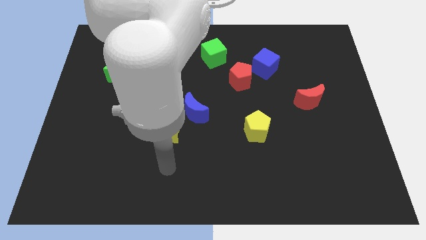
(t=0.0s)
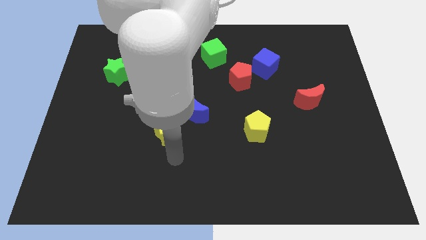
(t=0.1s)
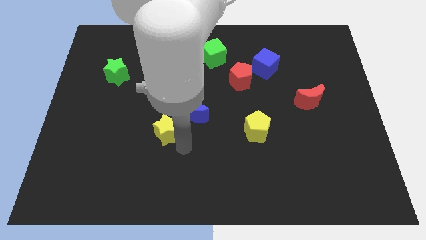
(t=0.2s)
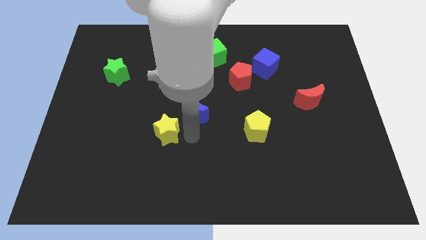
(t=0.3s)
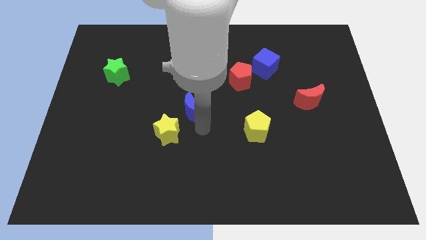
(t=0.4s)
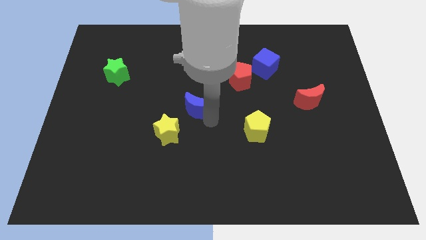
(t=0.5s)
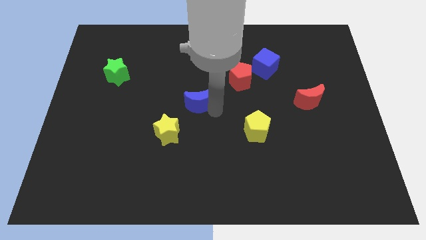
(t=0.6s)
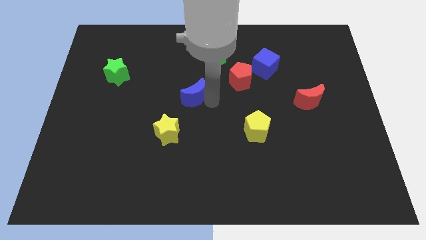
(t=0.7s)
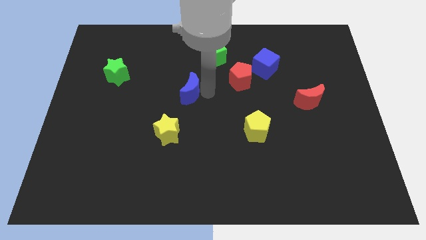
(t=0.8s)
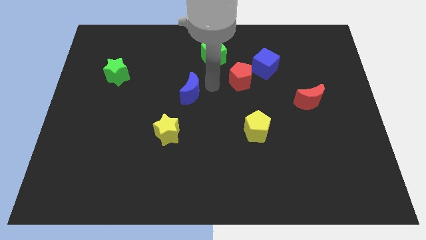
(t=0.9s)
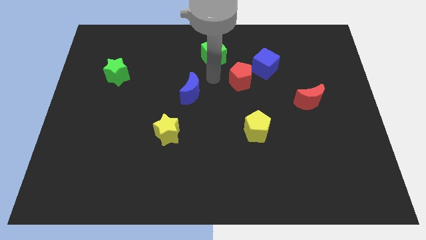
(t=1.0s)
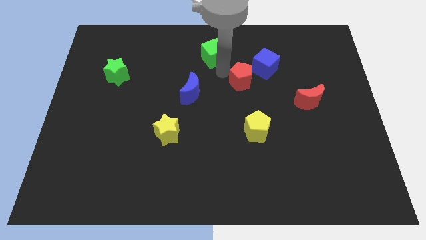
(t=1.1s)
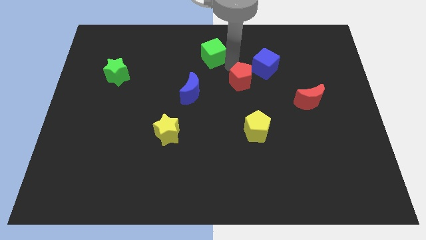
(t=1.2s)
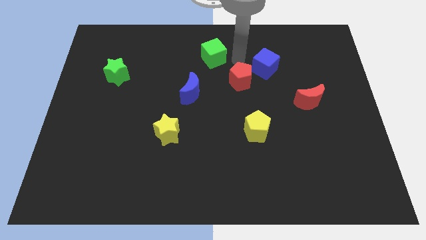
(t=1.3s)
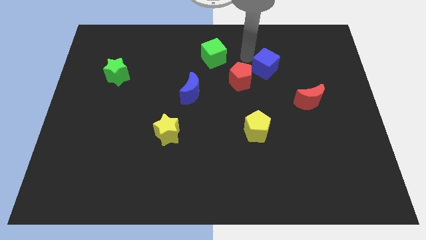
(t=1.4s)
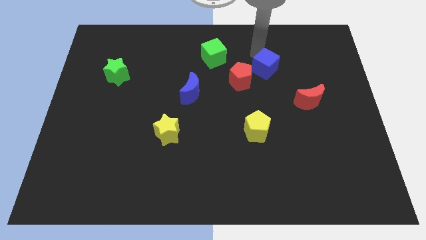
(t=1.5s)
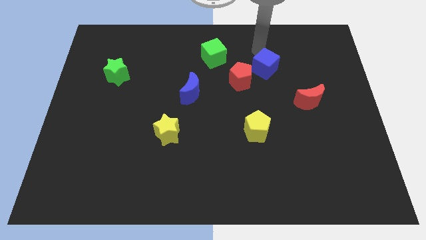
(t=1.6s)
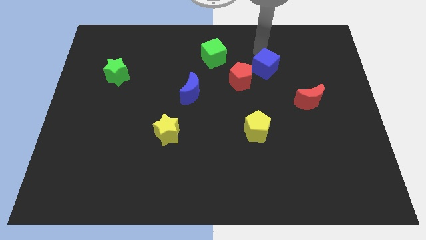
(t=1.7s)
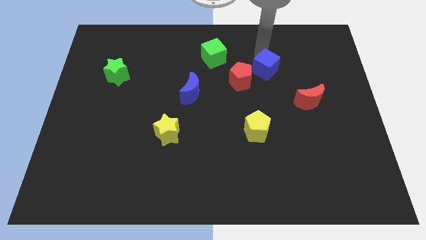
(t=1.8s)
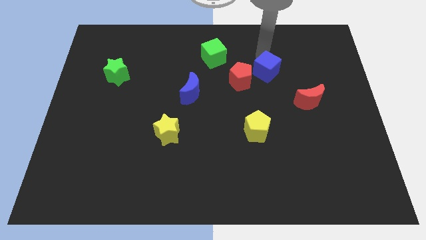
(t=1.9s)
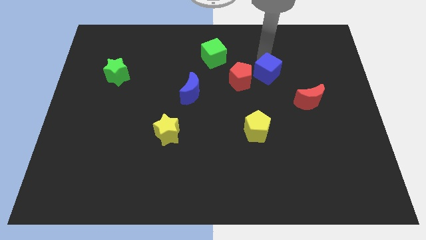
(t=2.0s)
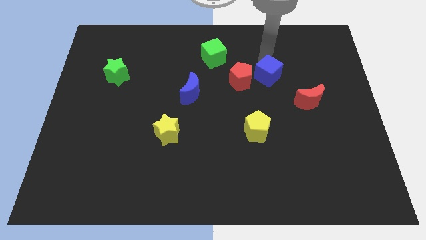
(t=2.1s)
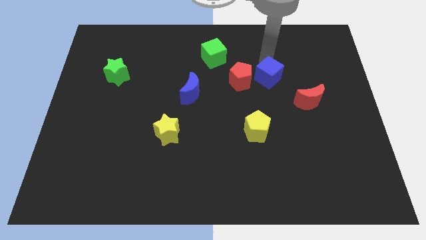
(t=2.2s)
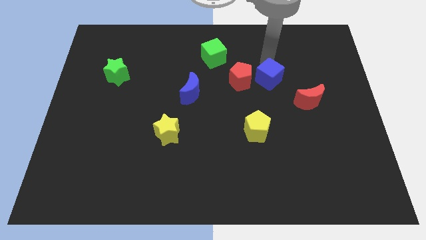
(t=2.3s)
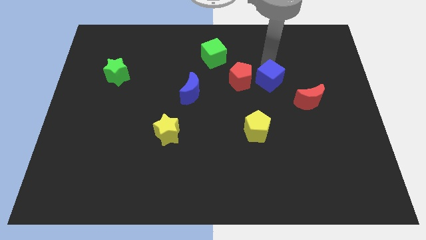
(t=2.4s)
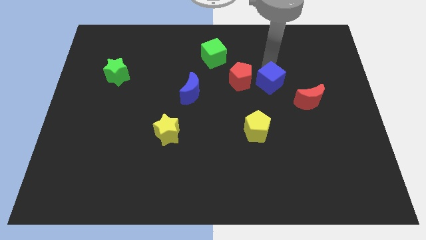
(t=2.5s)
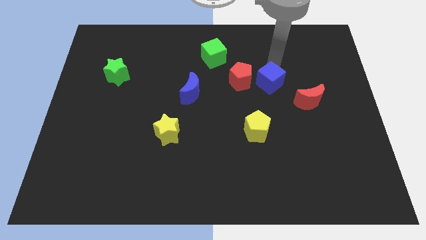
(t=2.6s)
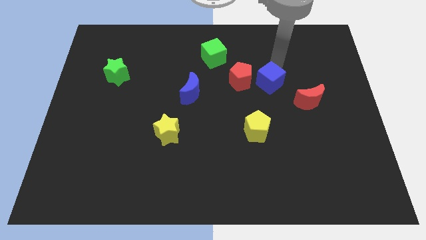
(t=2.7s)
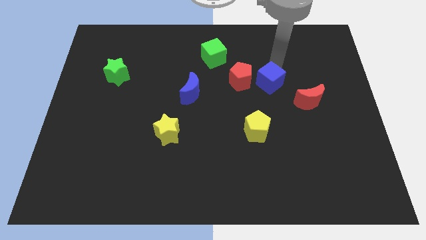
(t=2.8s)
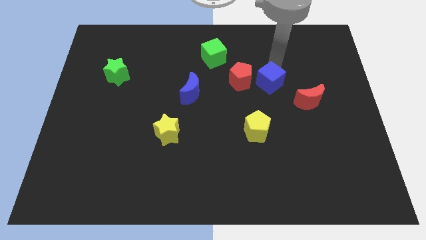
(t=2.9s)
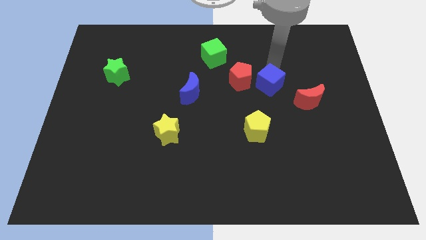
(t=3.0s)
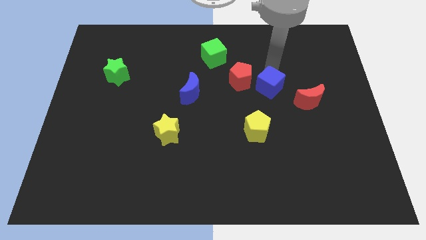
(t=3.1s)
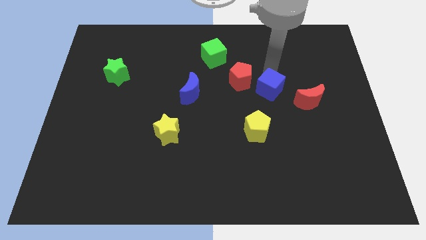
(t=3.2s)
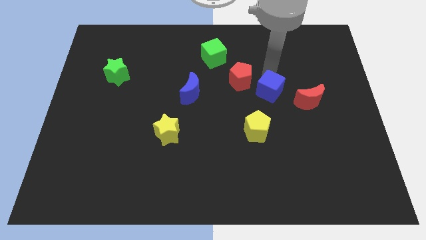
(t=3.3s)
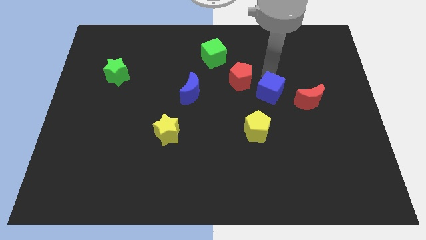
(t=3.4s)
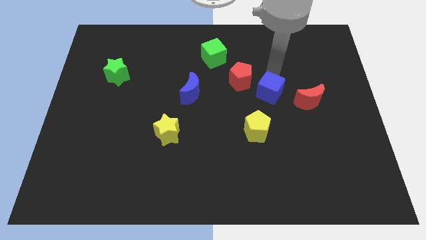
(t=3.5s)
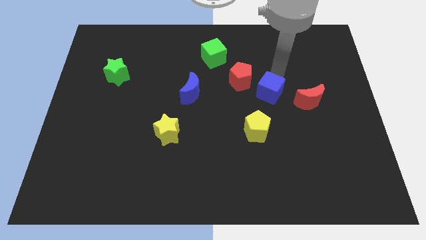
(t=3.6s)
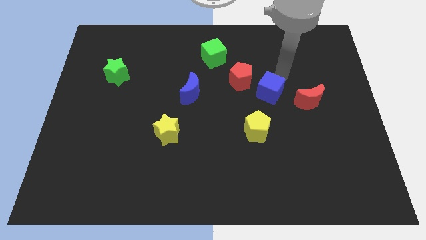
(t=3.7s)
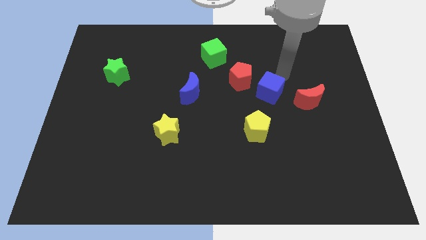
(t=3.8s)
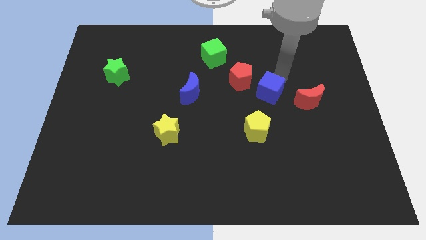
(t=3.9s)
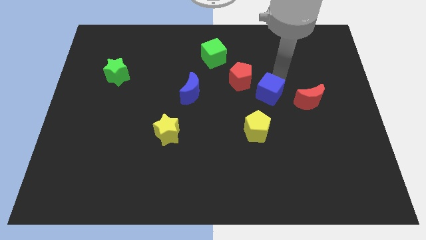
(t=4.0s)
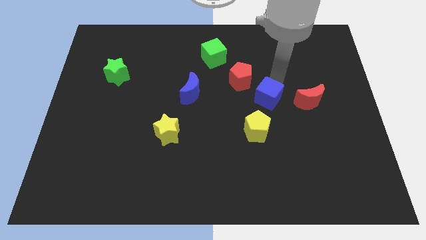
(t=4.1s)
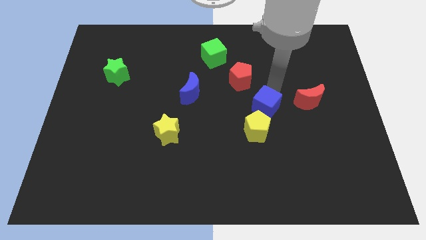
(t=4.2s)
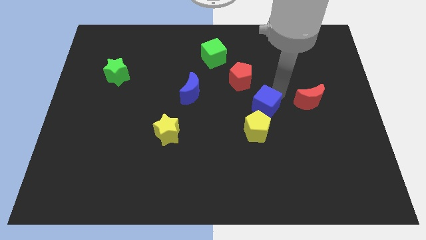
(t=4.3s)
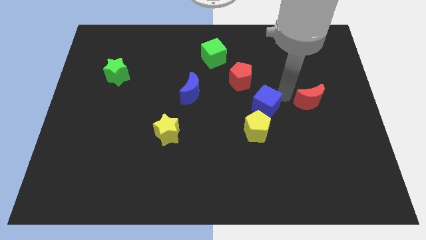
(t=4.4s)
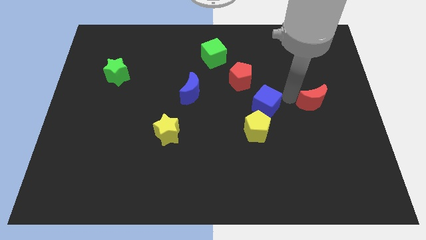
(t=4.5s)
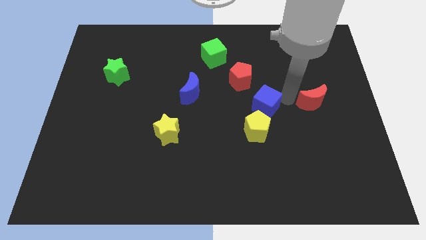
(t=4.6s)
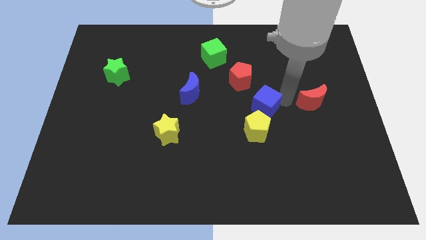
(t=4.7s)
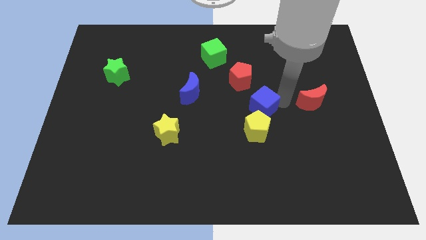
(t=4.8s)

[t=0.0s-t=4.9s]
push the blue cube below the red pentagon

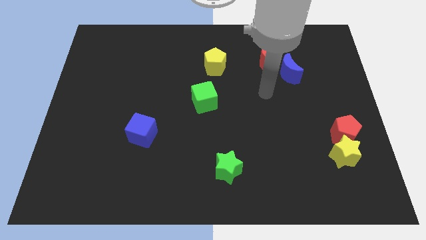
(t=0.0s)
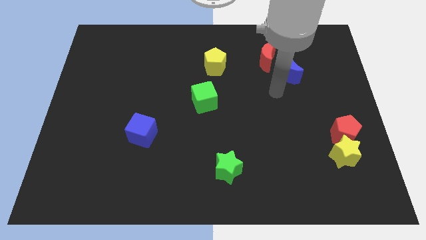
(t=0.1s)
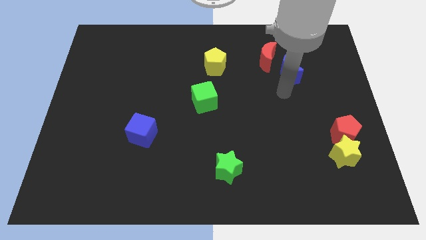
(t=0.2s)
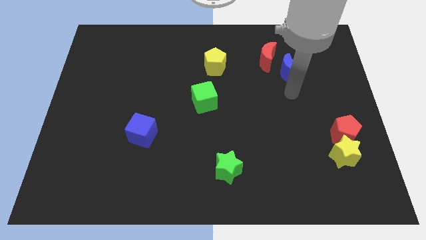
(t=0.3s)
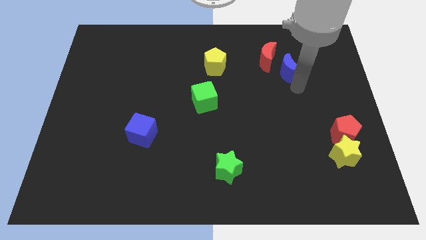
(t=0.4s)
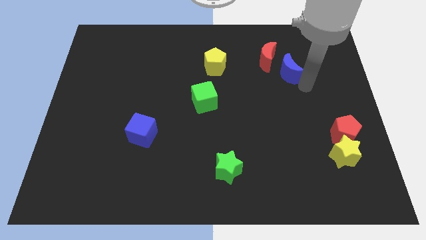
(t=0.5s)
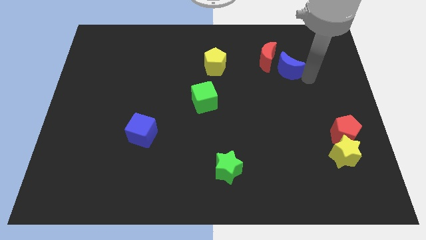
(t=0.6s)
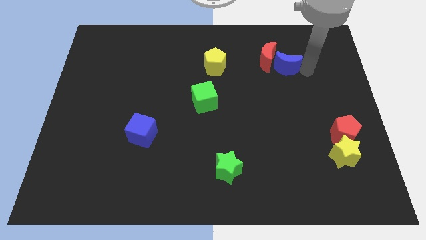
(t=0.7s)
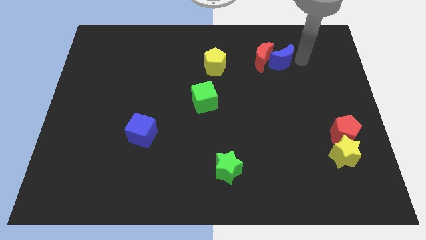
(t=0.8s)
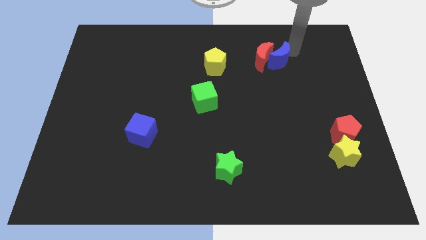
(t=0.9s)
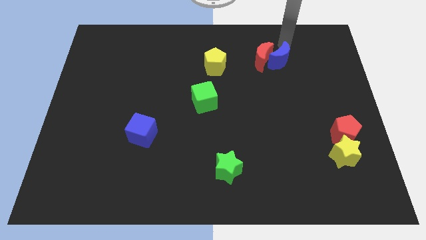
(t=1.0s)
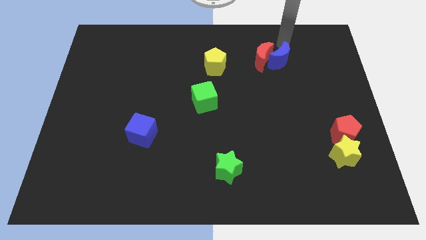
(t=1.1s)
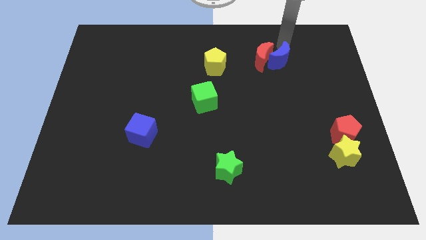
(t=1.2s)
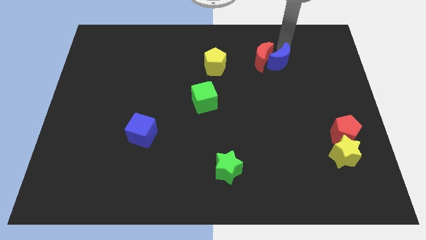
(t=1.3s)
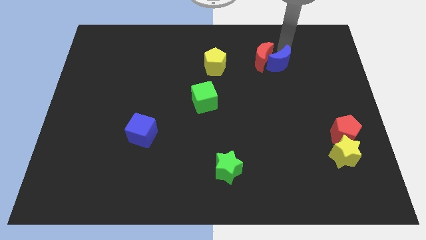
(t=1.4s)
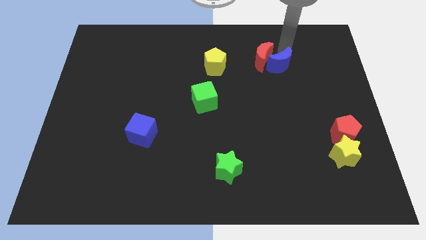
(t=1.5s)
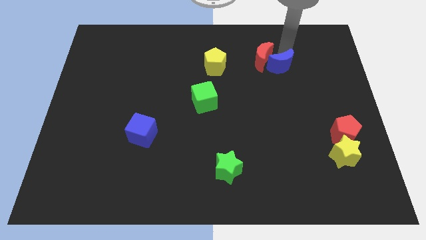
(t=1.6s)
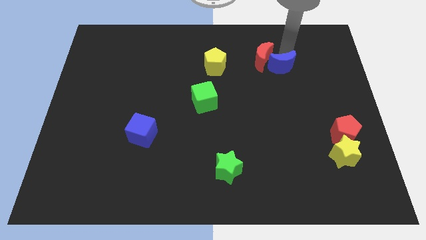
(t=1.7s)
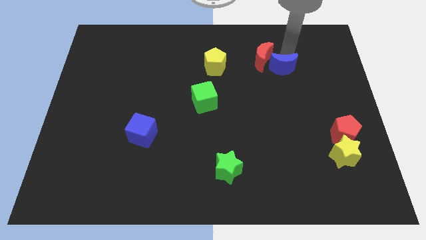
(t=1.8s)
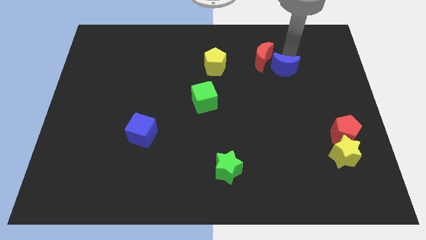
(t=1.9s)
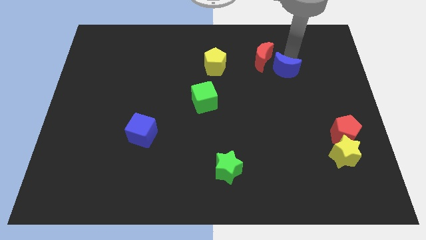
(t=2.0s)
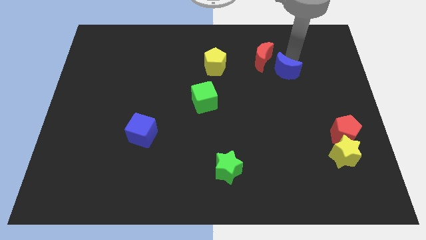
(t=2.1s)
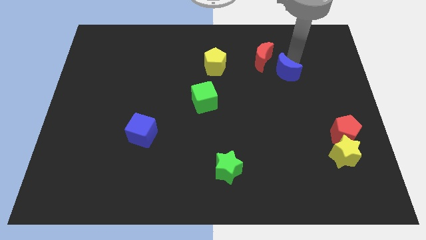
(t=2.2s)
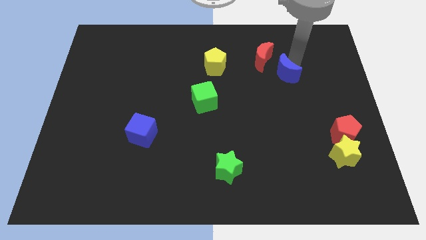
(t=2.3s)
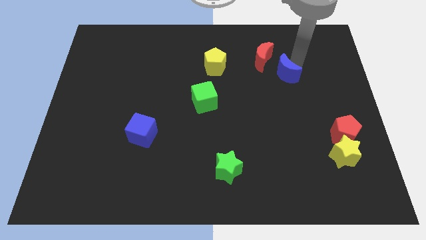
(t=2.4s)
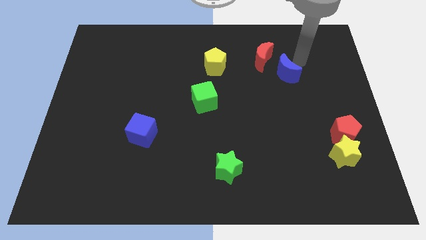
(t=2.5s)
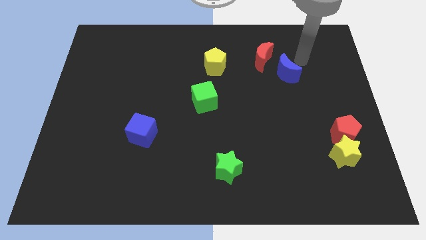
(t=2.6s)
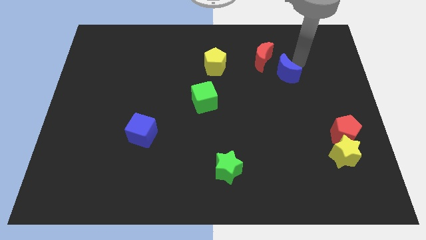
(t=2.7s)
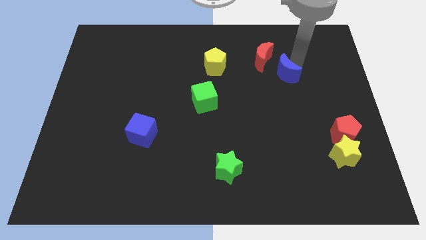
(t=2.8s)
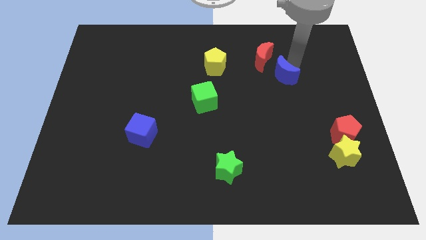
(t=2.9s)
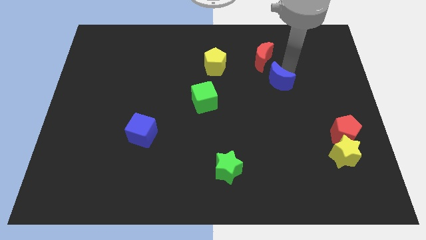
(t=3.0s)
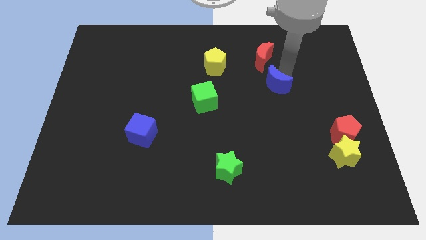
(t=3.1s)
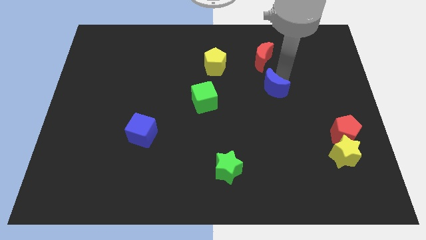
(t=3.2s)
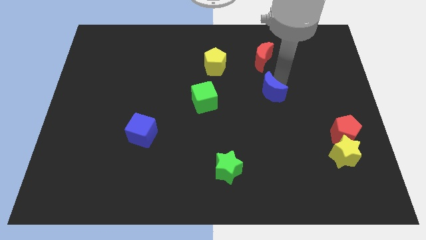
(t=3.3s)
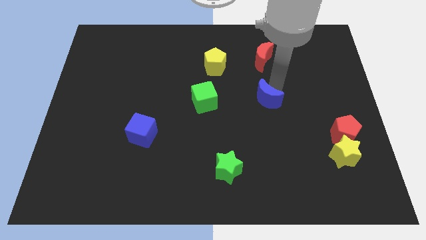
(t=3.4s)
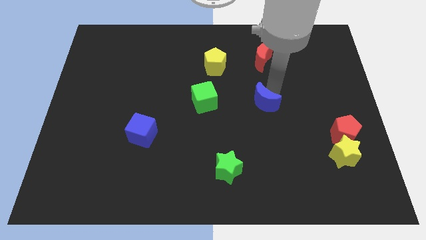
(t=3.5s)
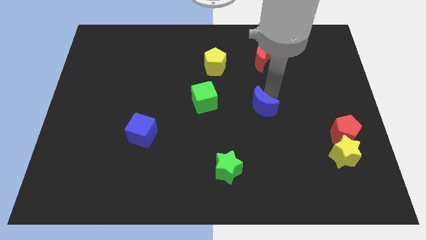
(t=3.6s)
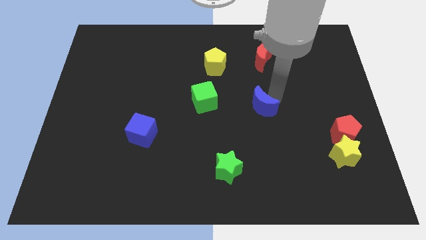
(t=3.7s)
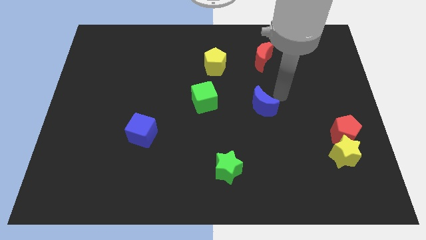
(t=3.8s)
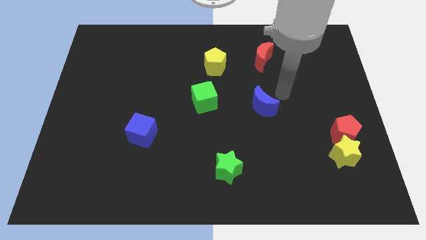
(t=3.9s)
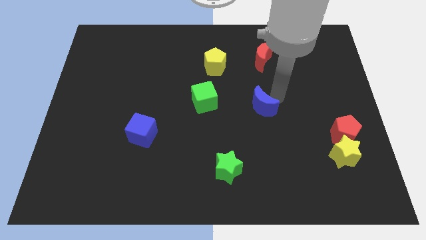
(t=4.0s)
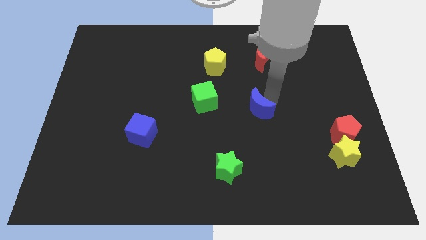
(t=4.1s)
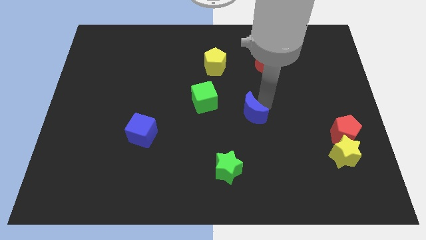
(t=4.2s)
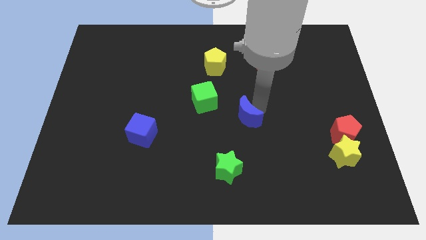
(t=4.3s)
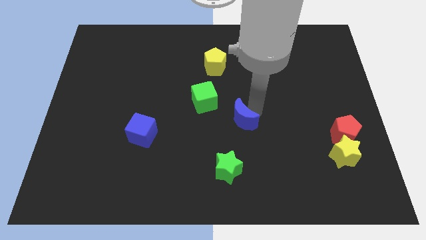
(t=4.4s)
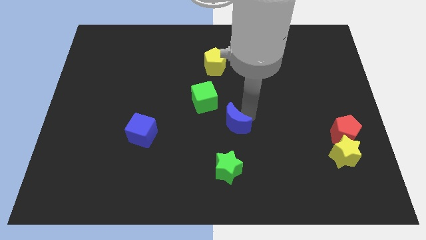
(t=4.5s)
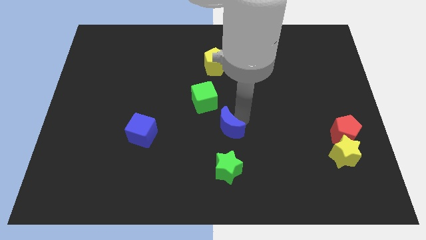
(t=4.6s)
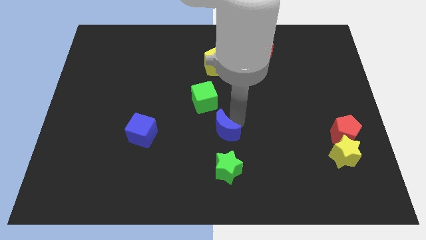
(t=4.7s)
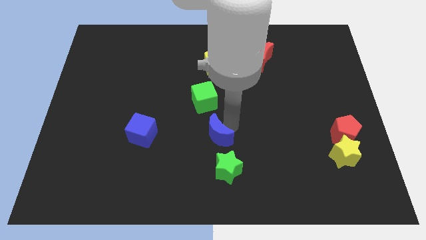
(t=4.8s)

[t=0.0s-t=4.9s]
slide the blue moon to the top left of the green star
